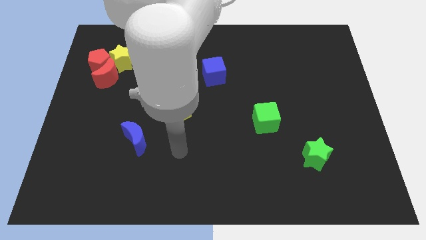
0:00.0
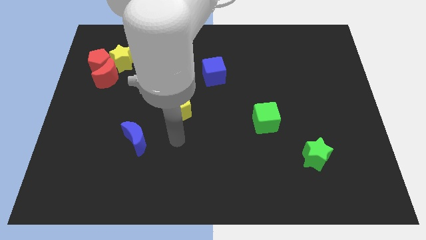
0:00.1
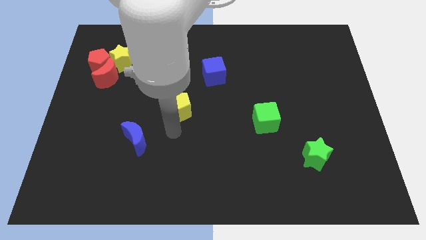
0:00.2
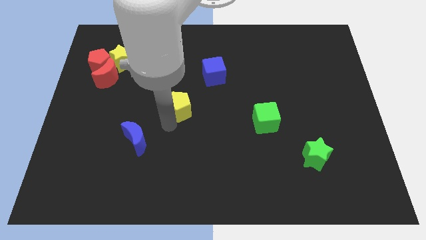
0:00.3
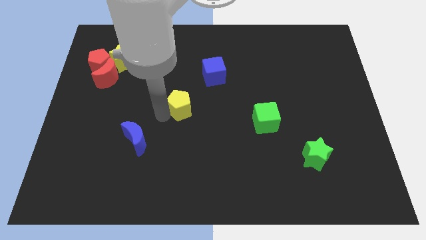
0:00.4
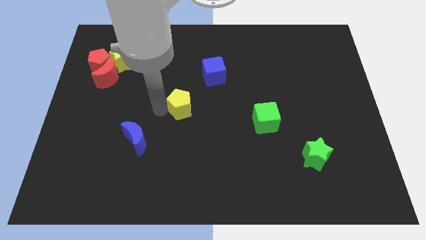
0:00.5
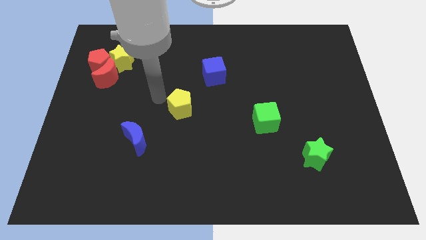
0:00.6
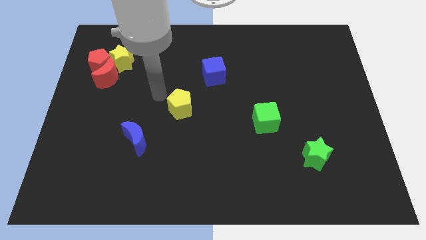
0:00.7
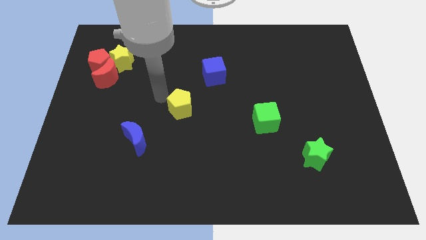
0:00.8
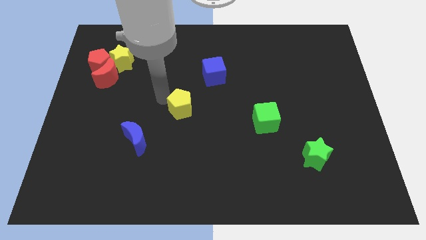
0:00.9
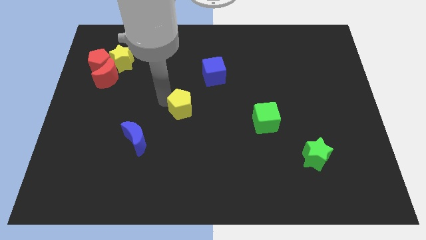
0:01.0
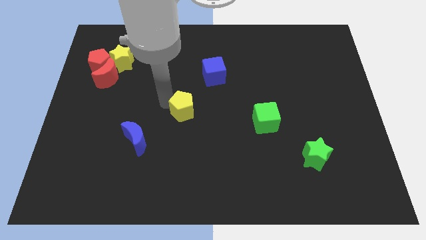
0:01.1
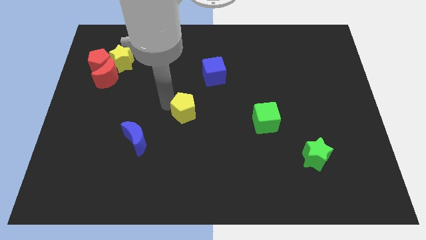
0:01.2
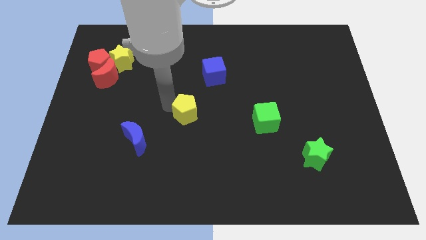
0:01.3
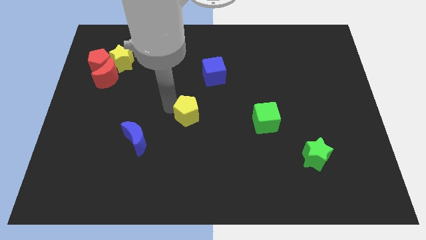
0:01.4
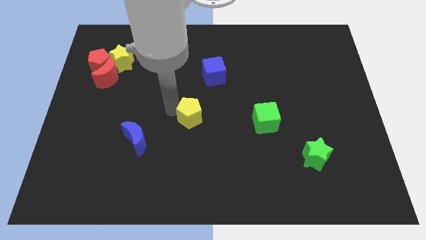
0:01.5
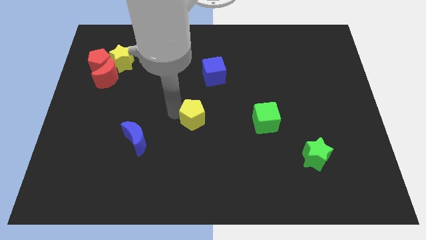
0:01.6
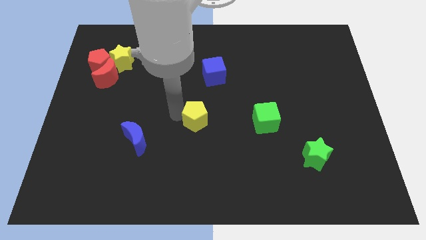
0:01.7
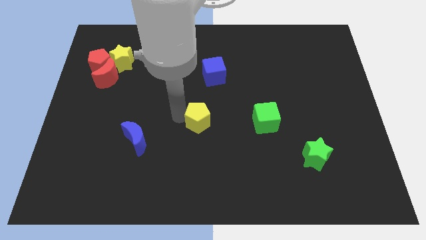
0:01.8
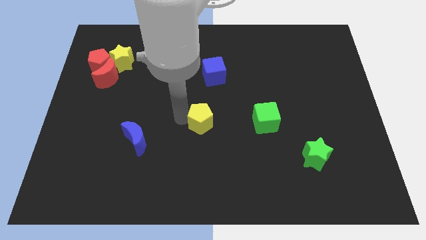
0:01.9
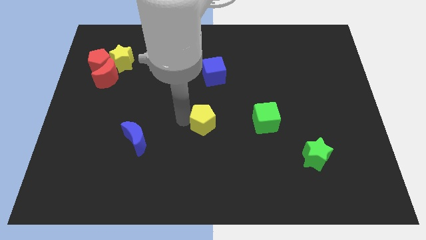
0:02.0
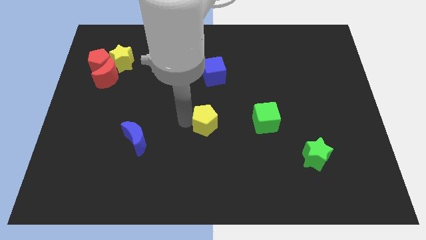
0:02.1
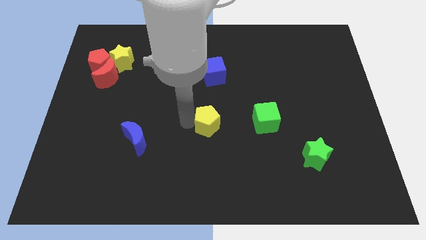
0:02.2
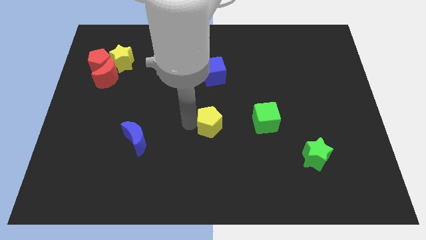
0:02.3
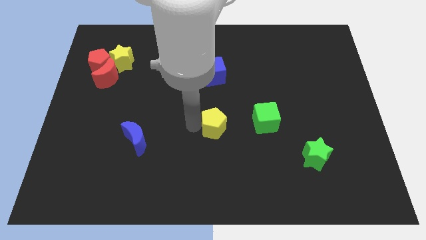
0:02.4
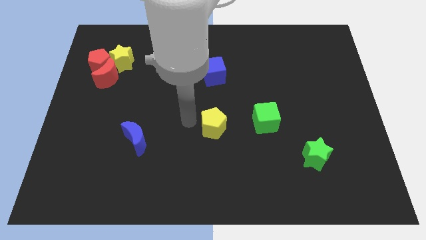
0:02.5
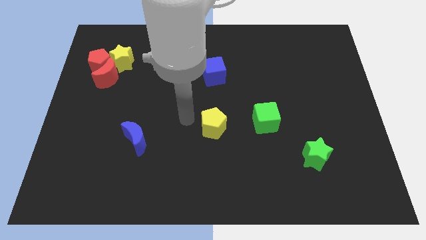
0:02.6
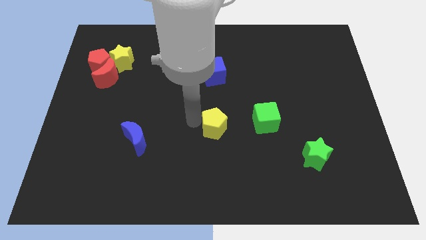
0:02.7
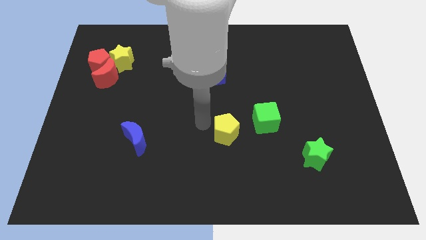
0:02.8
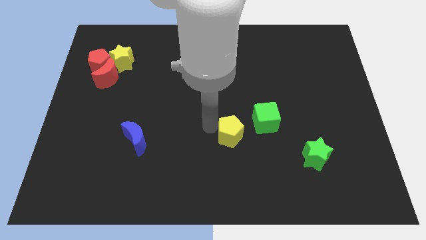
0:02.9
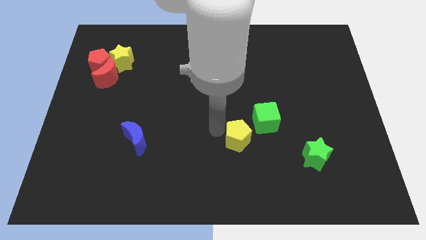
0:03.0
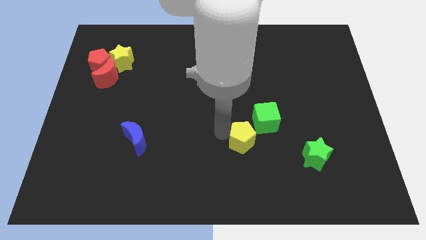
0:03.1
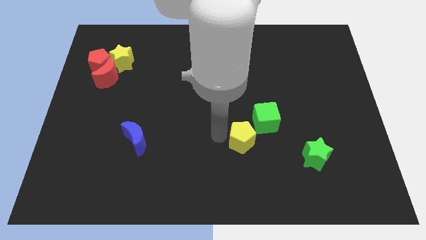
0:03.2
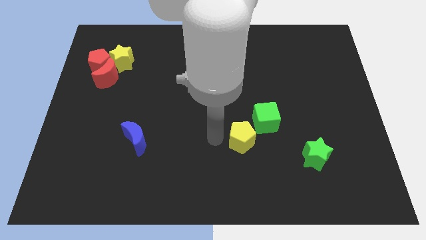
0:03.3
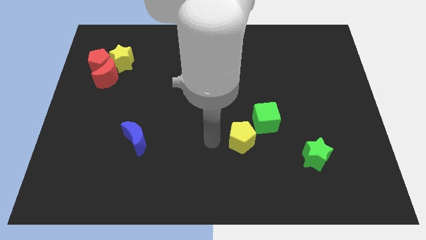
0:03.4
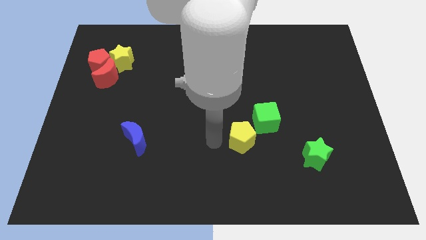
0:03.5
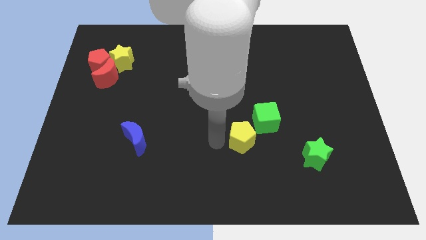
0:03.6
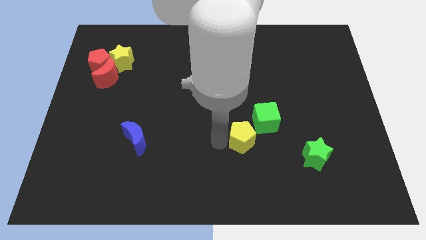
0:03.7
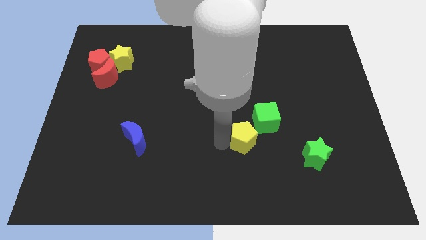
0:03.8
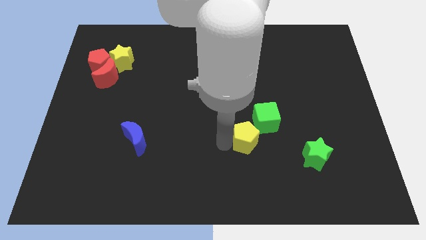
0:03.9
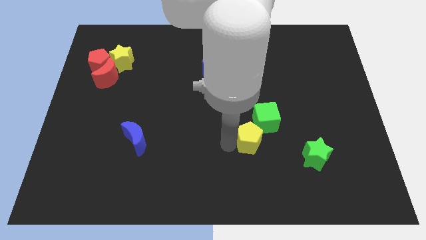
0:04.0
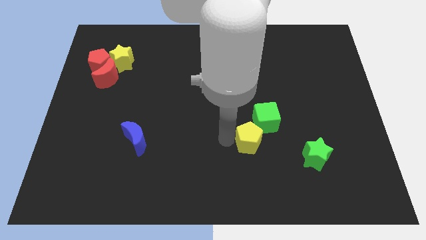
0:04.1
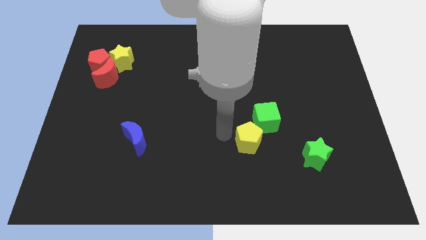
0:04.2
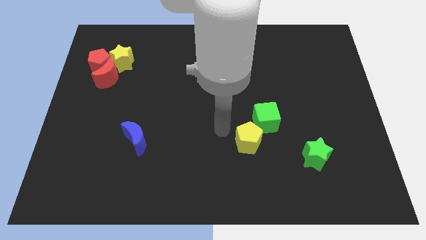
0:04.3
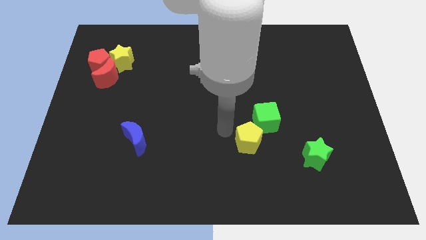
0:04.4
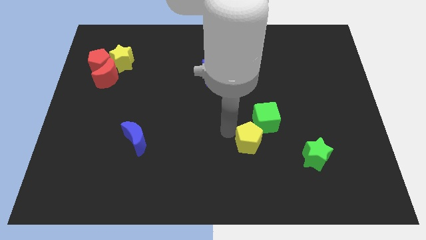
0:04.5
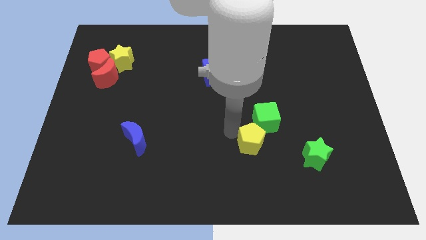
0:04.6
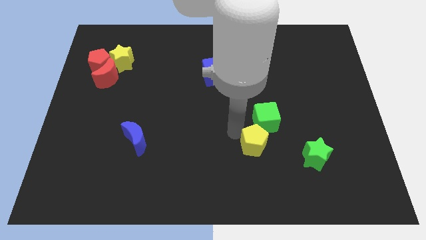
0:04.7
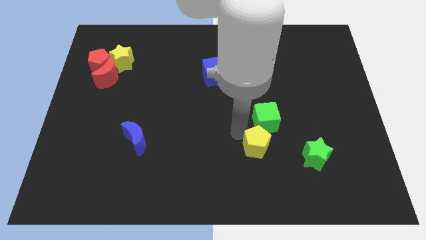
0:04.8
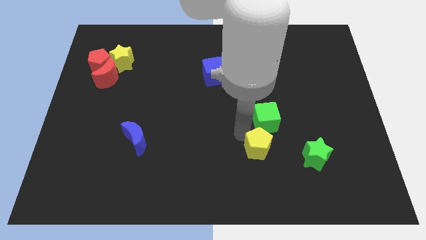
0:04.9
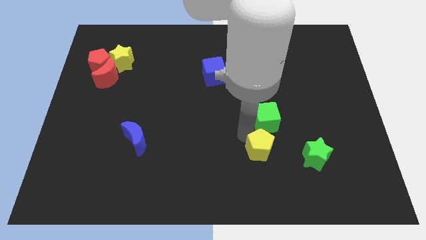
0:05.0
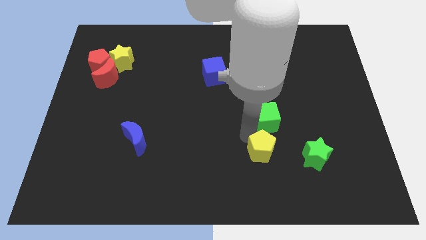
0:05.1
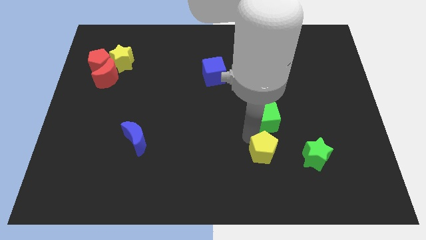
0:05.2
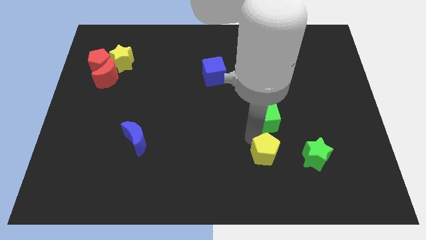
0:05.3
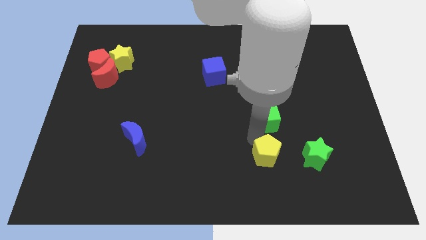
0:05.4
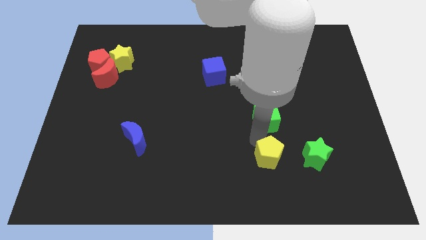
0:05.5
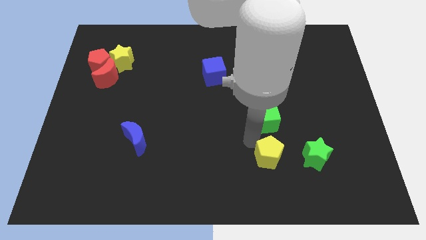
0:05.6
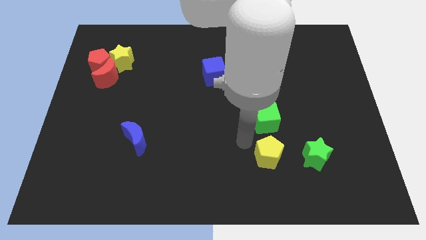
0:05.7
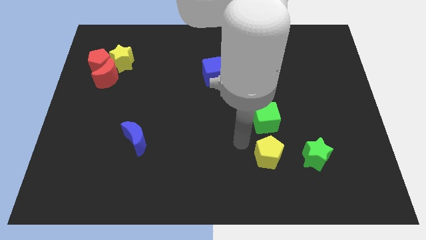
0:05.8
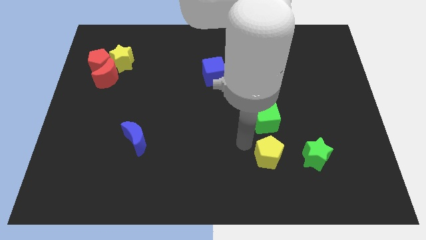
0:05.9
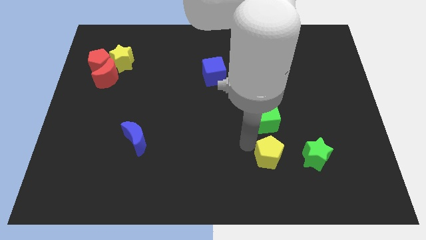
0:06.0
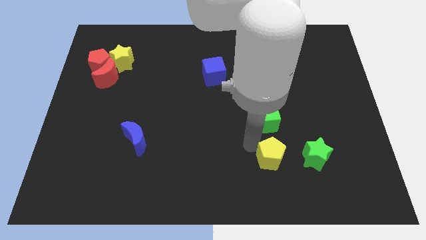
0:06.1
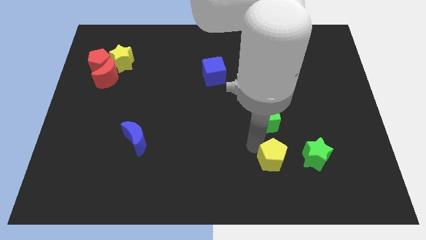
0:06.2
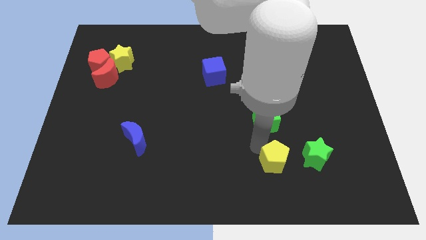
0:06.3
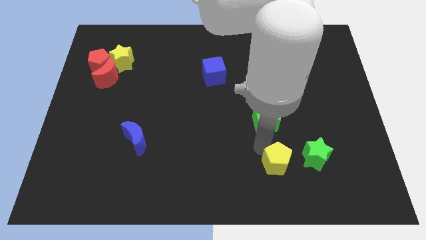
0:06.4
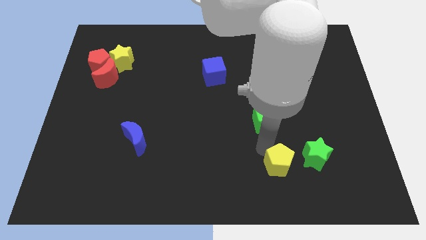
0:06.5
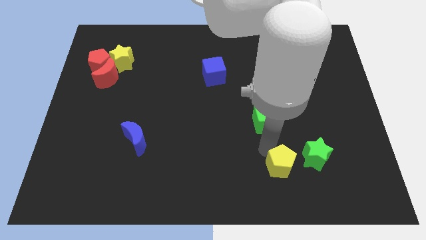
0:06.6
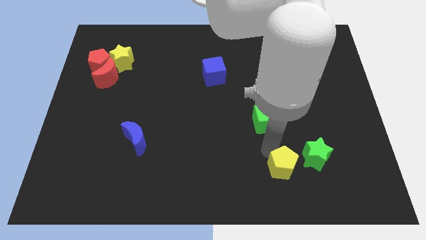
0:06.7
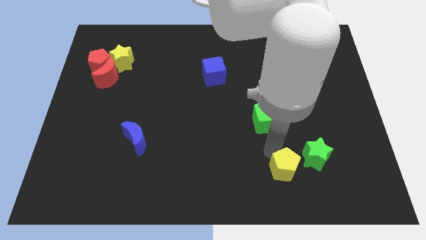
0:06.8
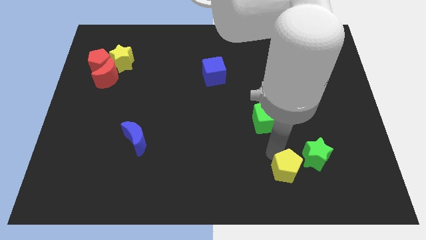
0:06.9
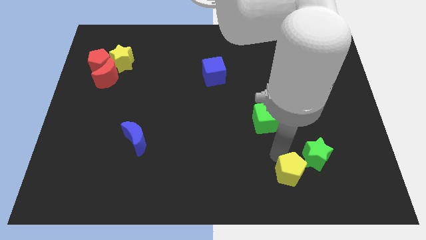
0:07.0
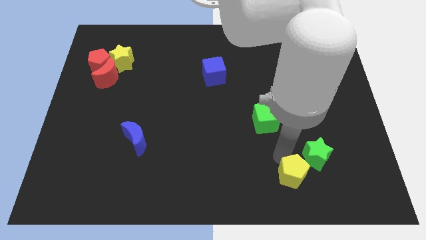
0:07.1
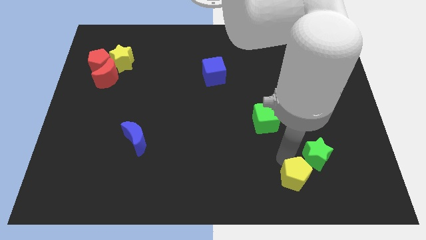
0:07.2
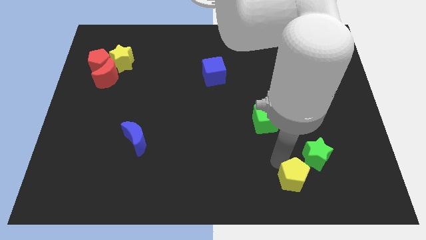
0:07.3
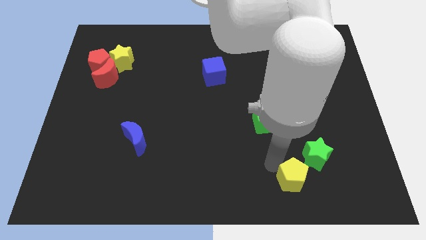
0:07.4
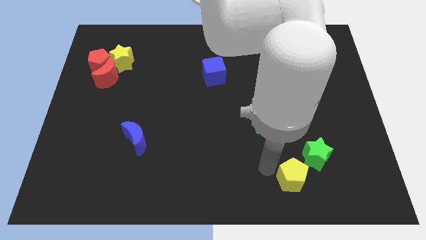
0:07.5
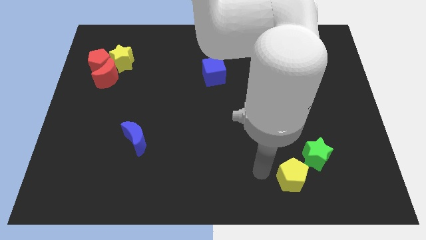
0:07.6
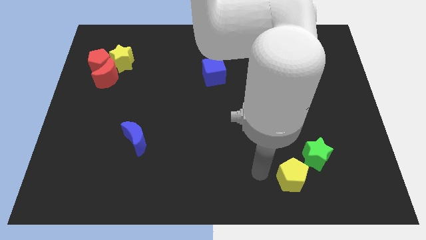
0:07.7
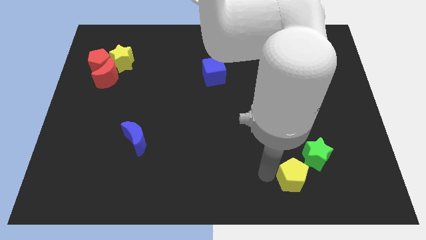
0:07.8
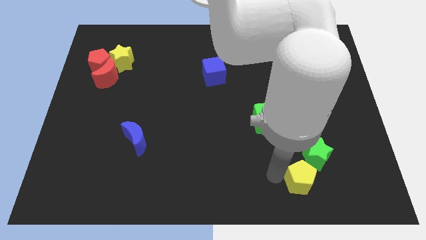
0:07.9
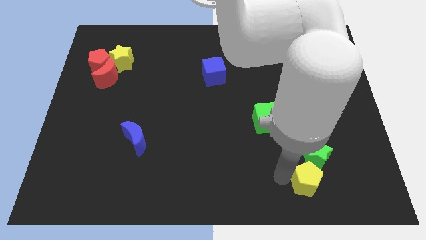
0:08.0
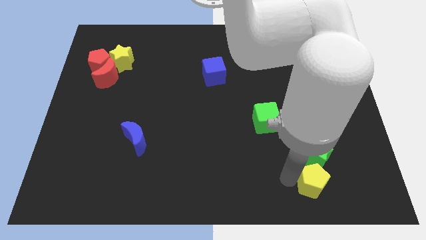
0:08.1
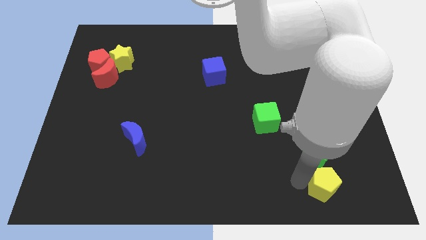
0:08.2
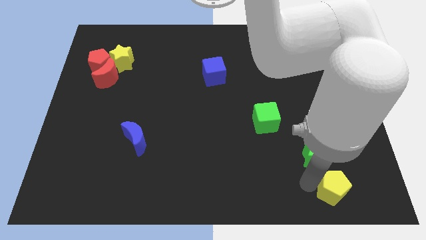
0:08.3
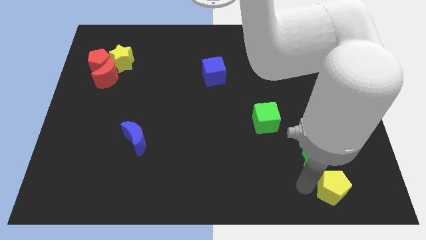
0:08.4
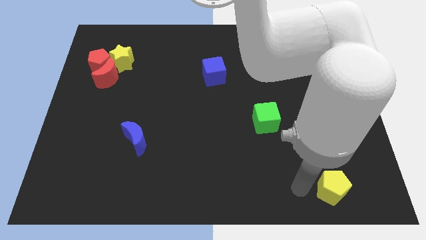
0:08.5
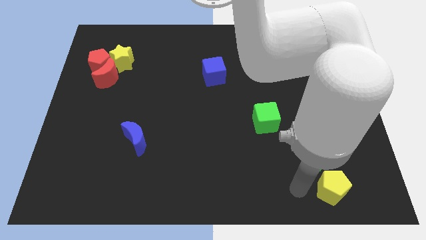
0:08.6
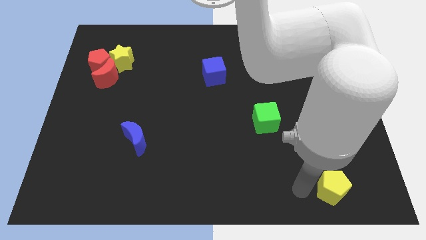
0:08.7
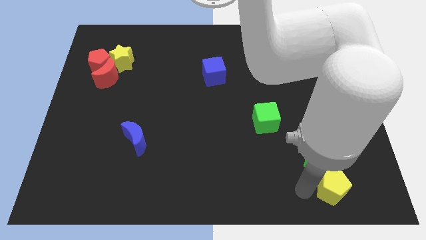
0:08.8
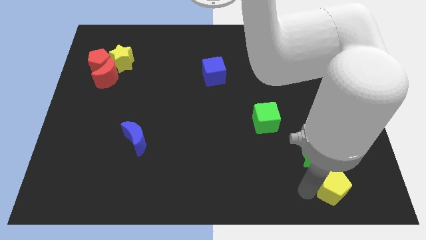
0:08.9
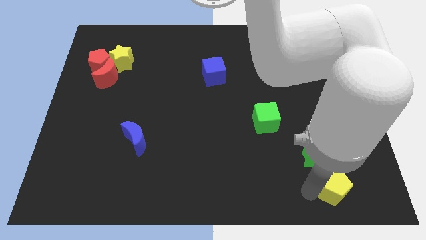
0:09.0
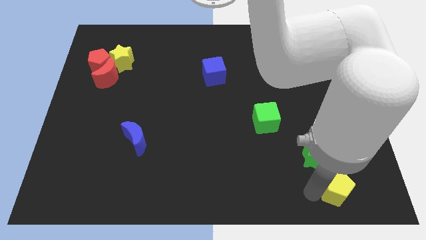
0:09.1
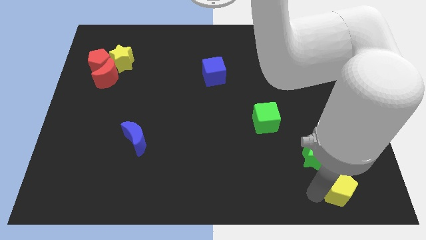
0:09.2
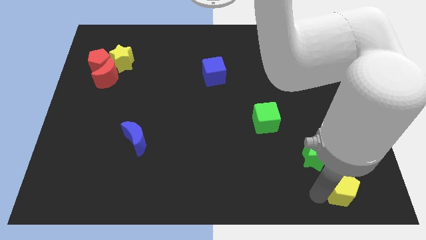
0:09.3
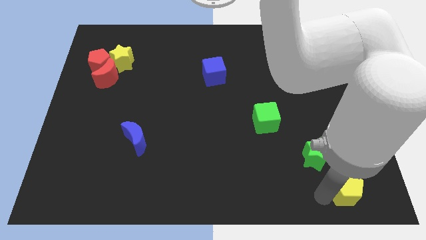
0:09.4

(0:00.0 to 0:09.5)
put the yellow pentagon to the lower right corner
